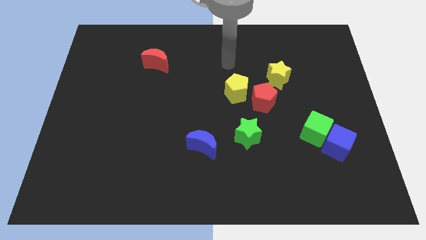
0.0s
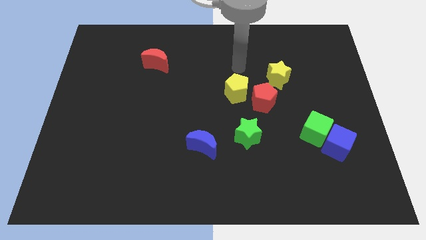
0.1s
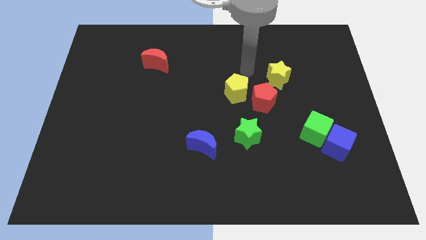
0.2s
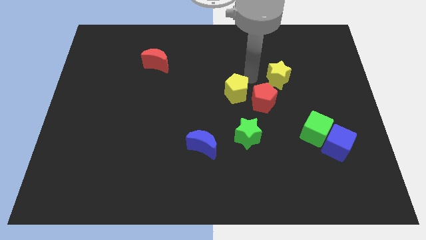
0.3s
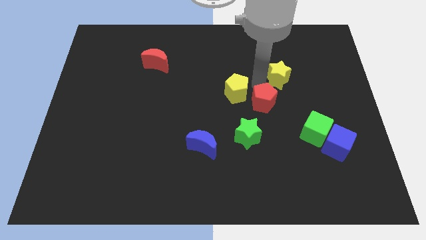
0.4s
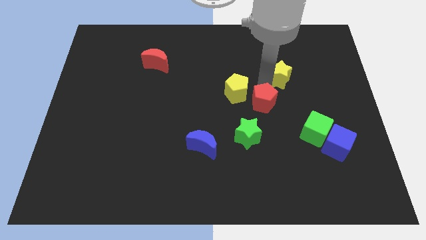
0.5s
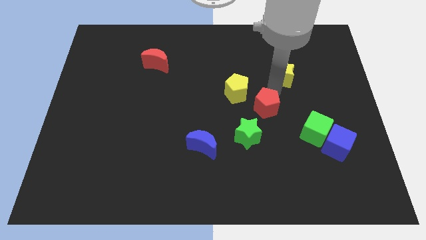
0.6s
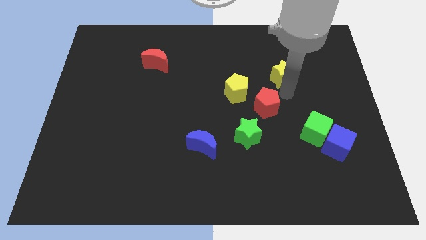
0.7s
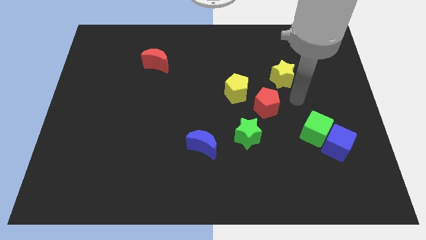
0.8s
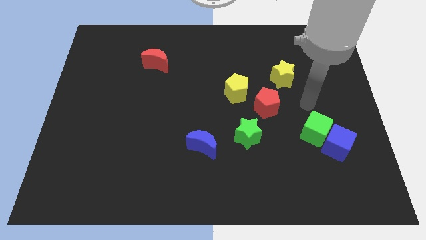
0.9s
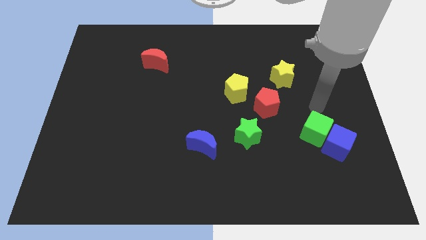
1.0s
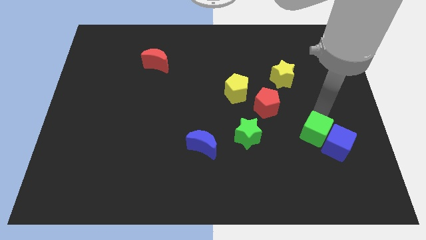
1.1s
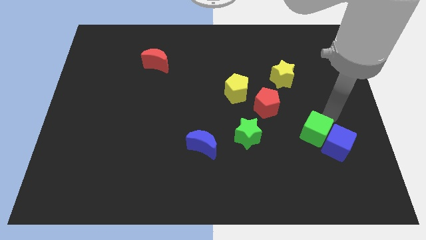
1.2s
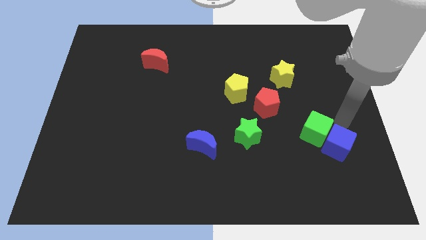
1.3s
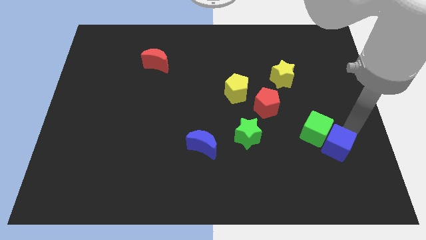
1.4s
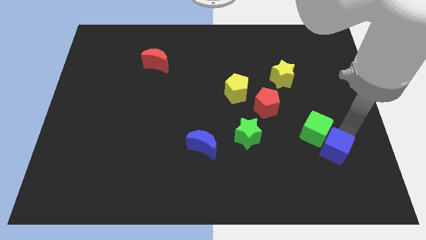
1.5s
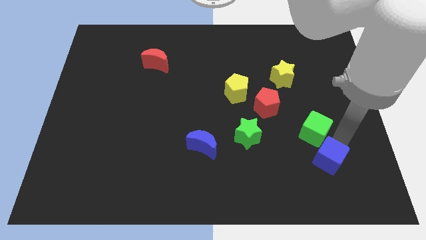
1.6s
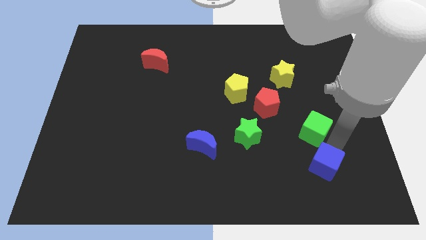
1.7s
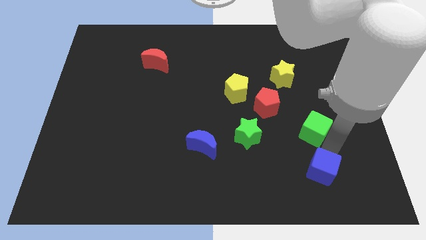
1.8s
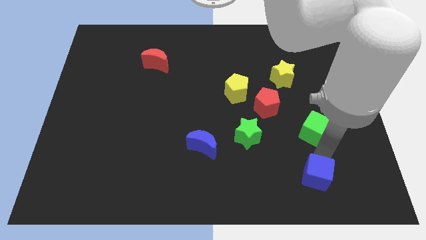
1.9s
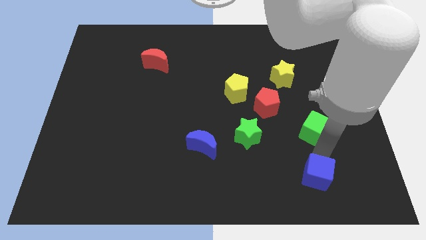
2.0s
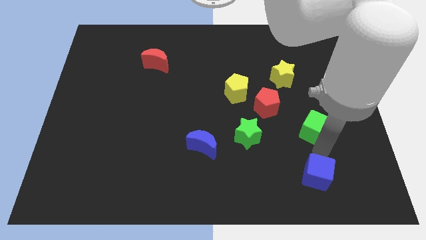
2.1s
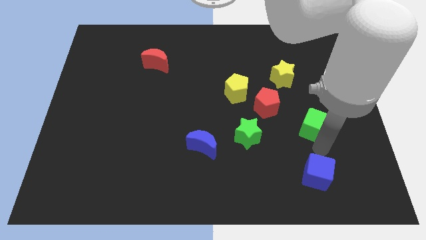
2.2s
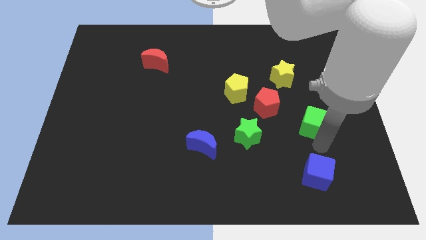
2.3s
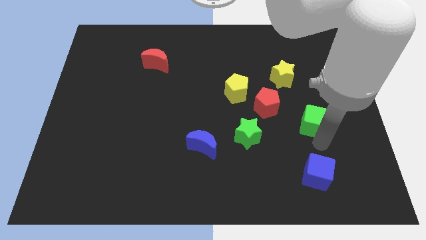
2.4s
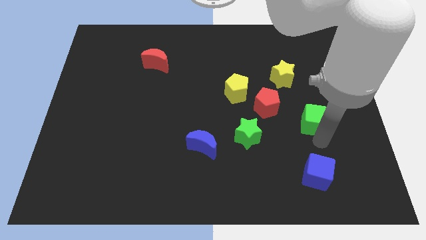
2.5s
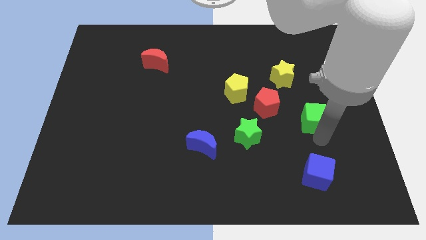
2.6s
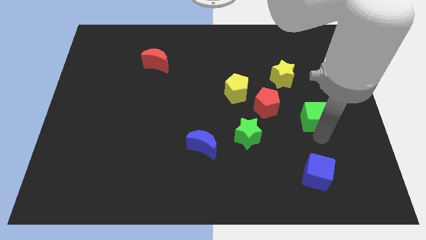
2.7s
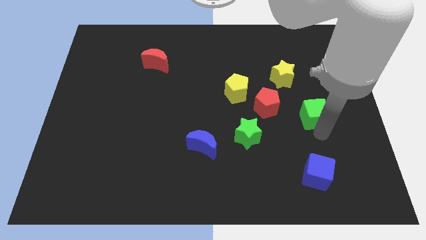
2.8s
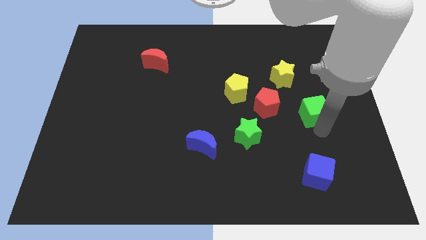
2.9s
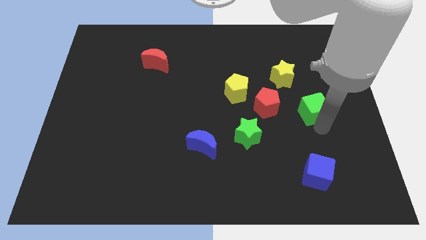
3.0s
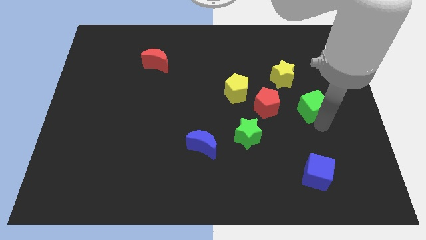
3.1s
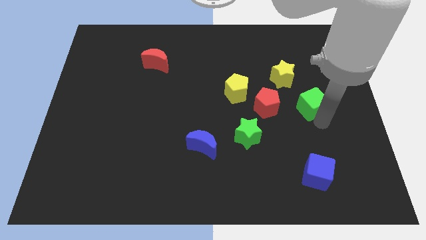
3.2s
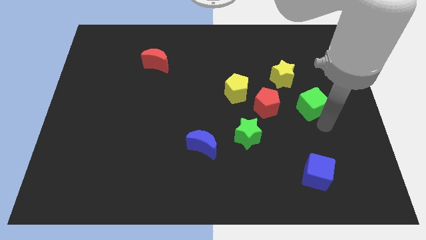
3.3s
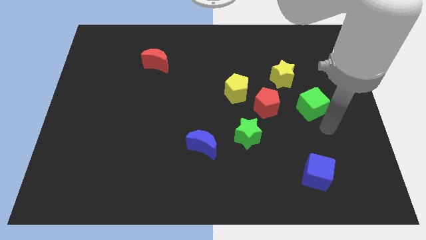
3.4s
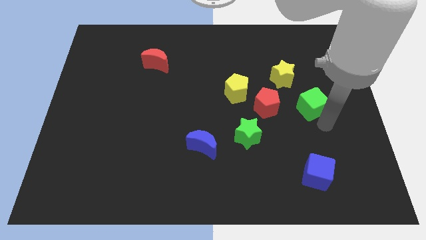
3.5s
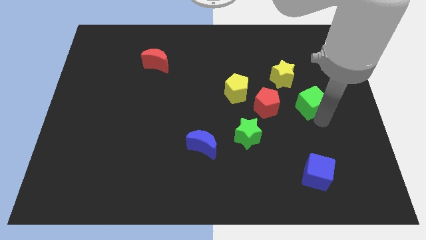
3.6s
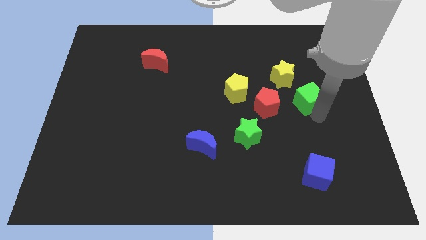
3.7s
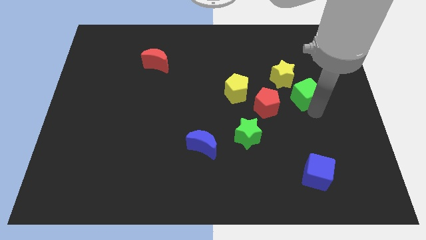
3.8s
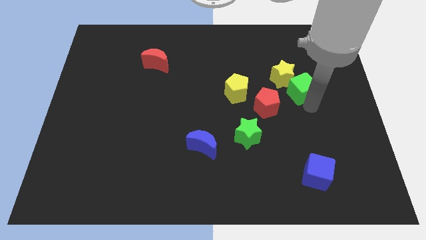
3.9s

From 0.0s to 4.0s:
slide the green cube up and to the left a bit

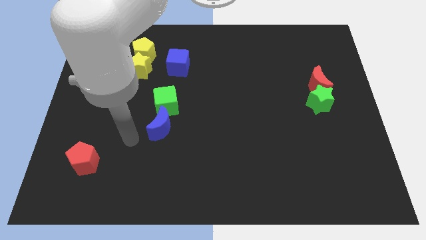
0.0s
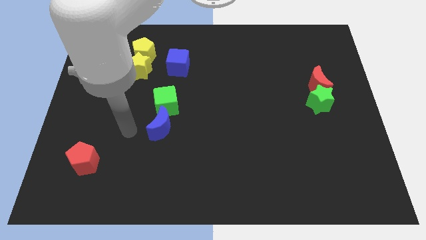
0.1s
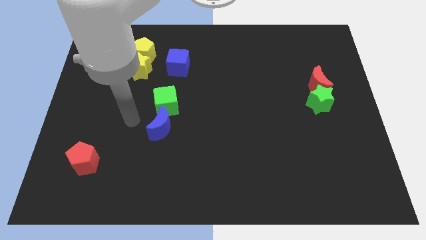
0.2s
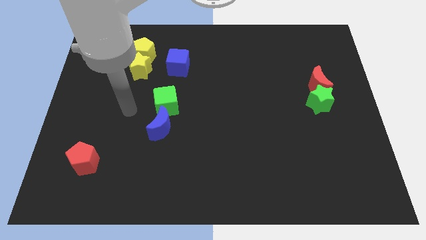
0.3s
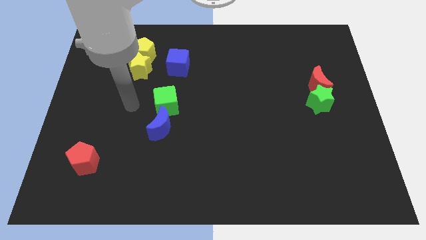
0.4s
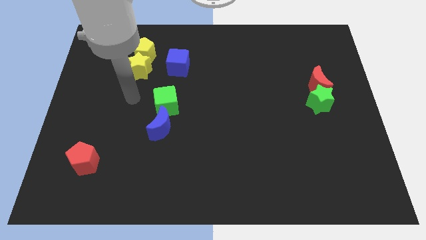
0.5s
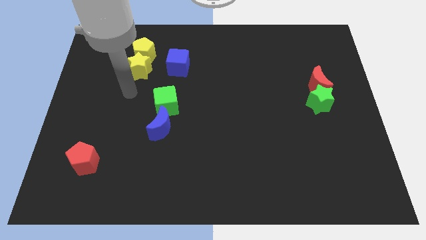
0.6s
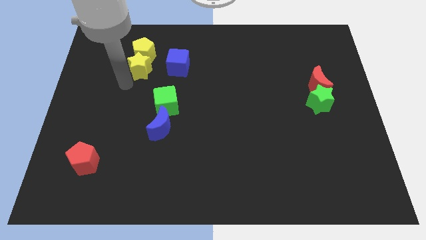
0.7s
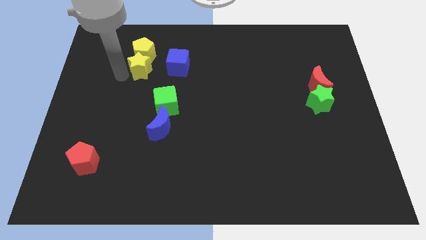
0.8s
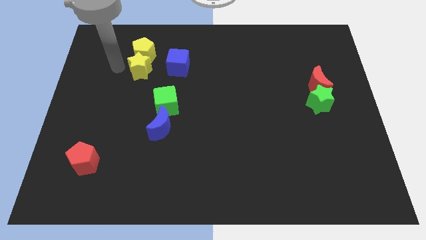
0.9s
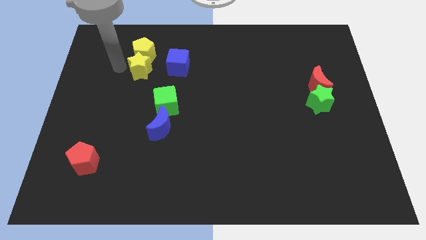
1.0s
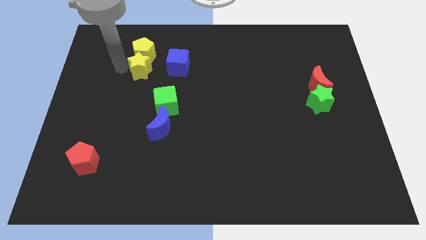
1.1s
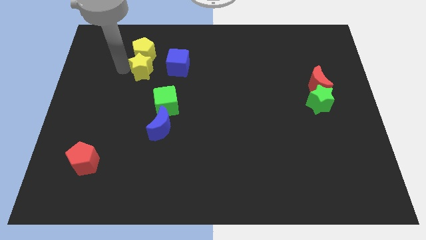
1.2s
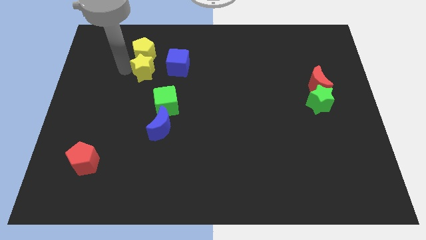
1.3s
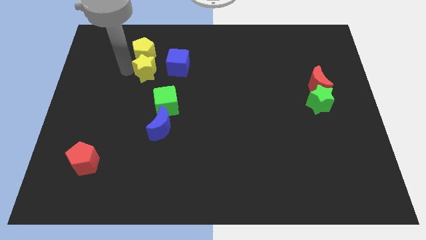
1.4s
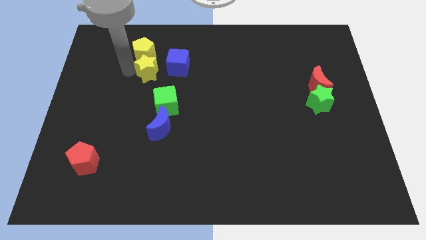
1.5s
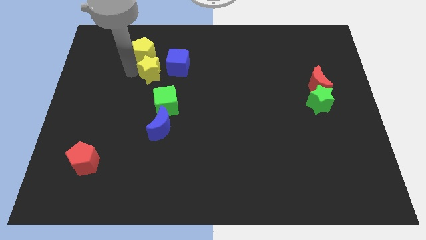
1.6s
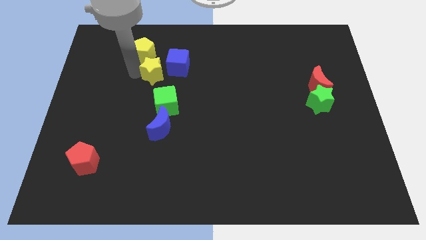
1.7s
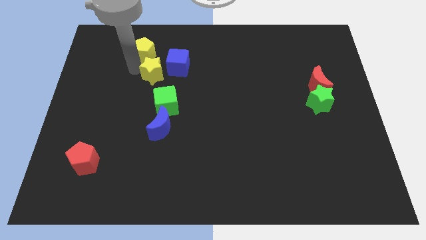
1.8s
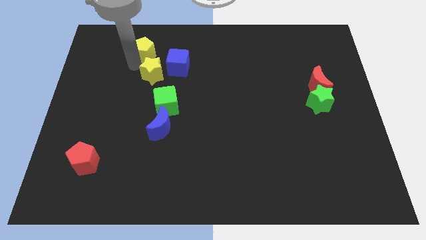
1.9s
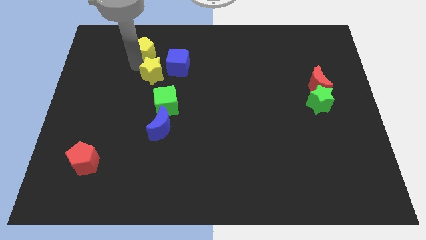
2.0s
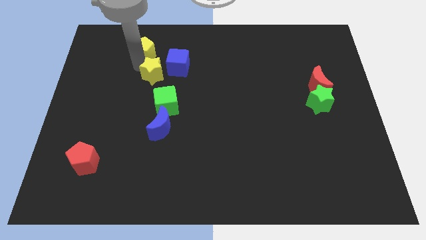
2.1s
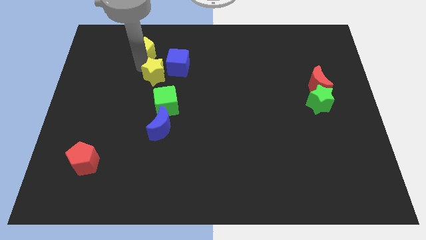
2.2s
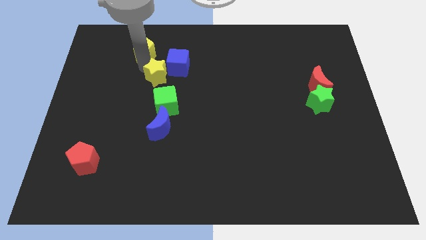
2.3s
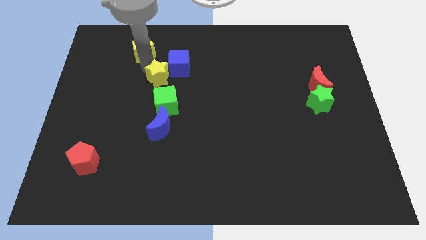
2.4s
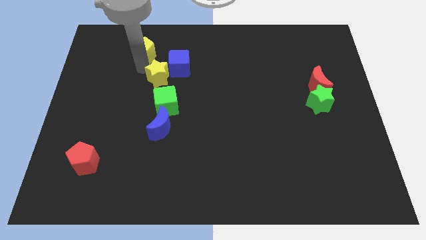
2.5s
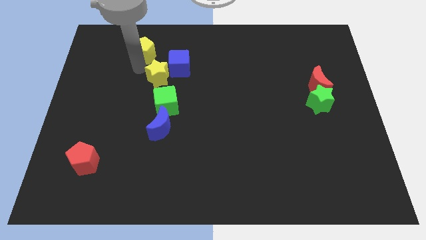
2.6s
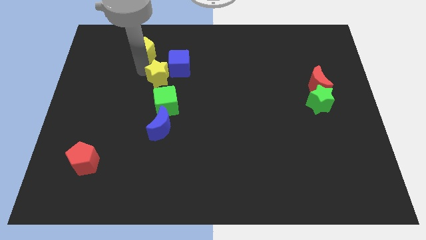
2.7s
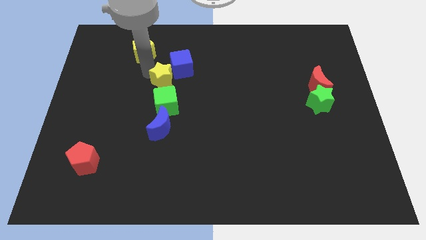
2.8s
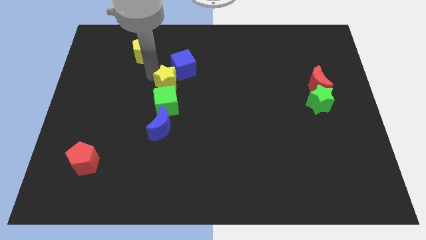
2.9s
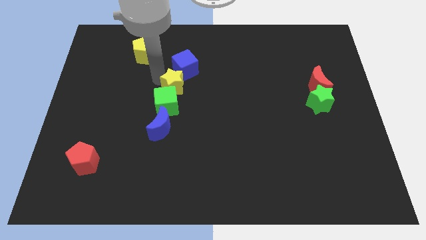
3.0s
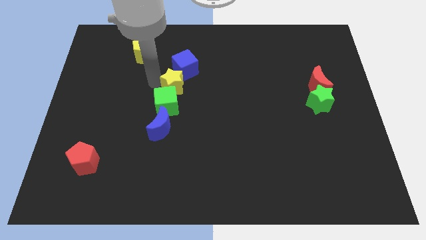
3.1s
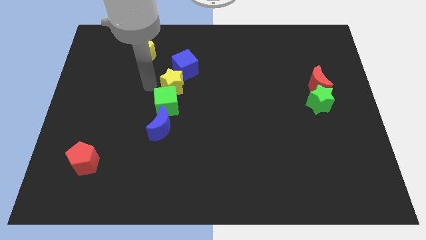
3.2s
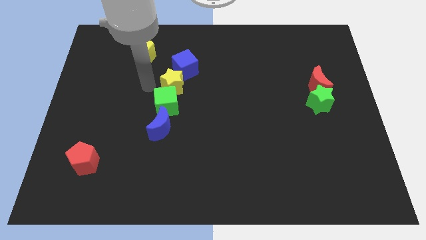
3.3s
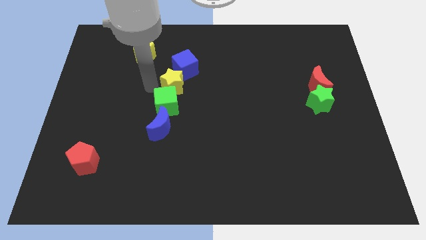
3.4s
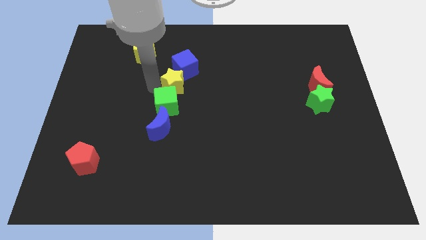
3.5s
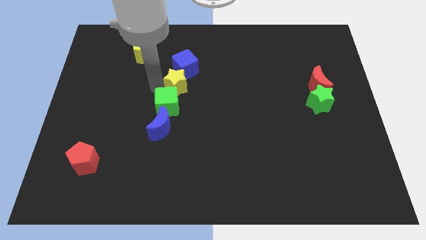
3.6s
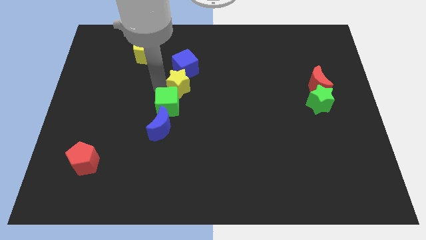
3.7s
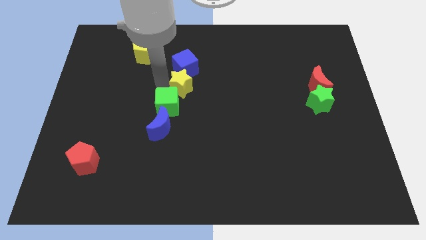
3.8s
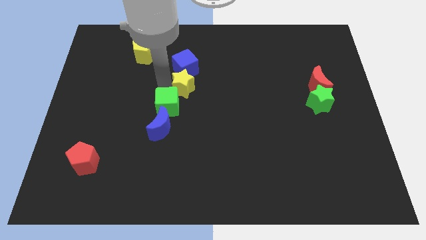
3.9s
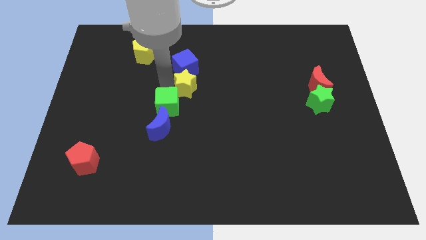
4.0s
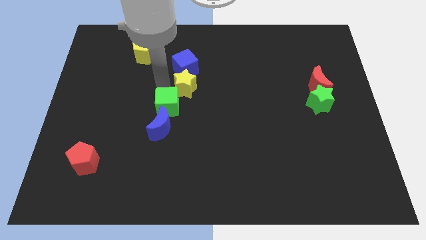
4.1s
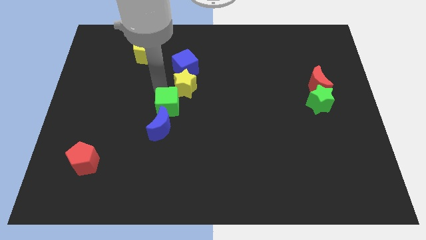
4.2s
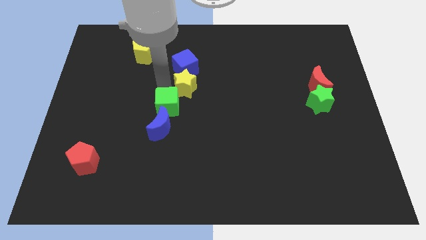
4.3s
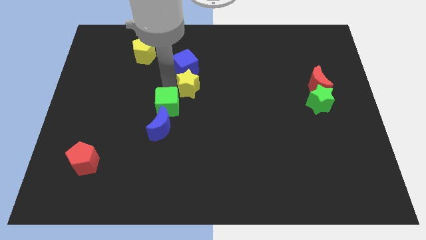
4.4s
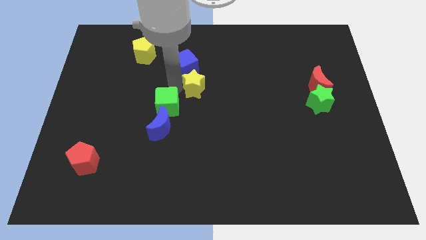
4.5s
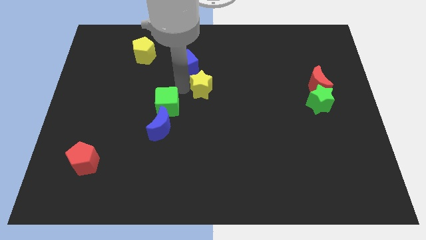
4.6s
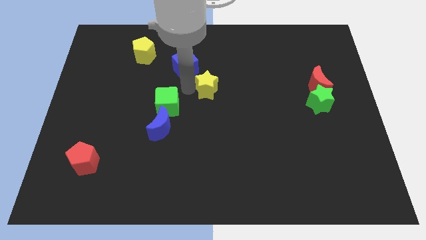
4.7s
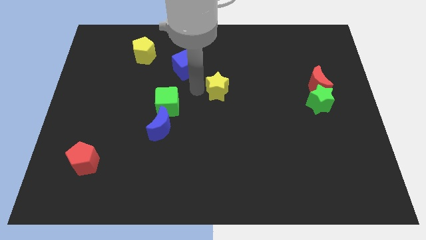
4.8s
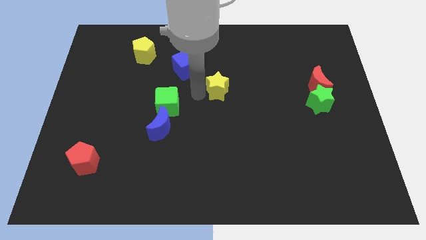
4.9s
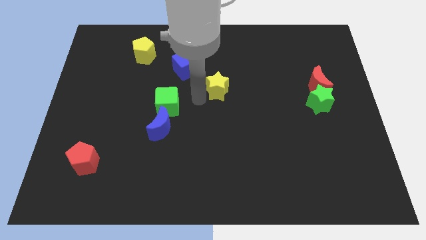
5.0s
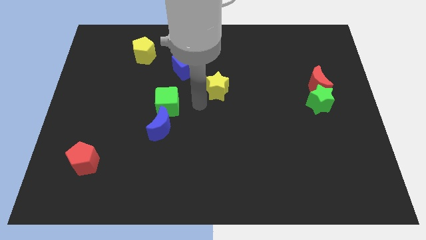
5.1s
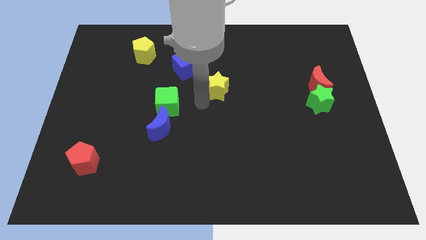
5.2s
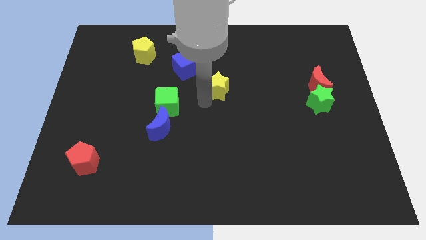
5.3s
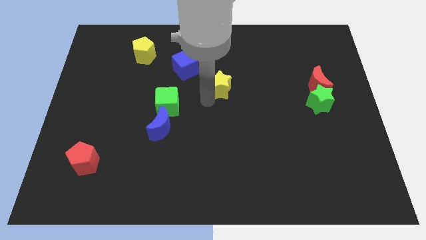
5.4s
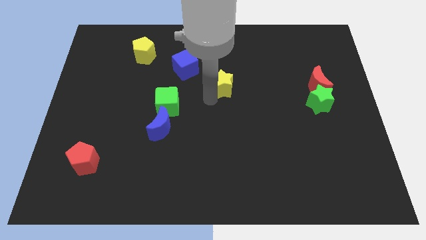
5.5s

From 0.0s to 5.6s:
slide the yellow star right
